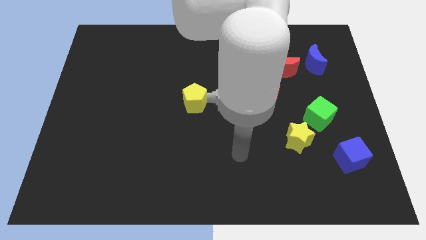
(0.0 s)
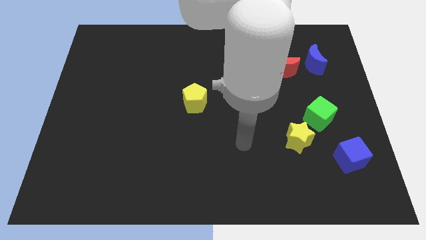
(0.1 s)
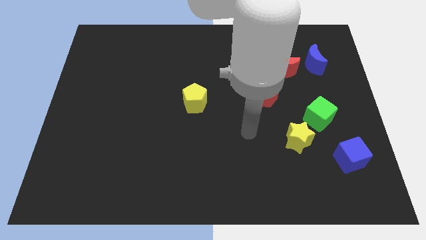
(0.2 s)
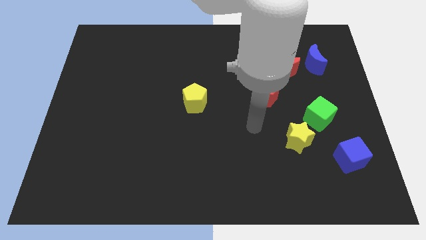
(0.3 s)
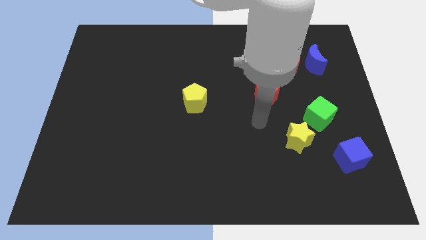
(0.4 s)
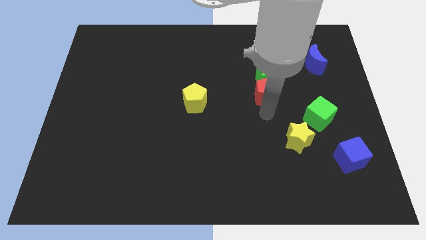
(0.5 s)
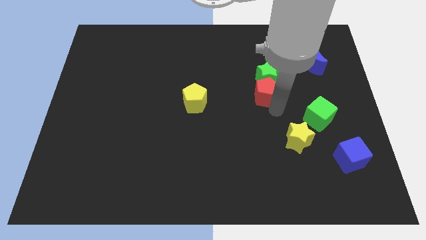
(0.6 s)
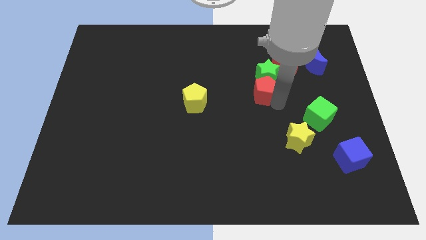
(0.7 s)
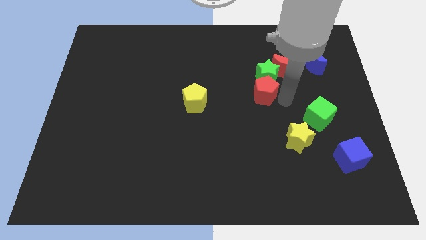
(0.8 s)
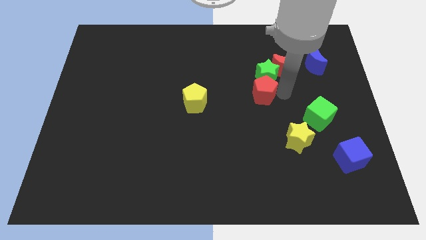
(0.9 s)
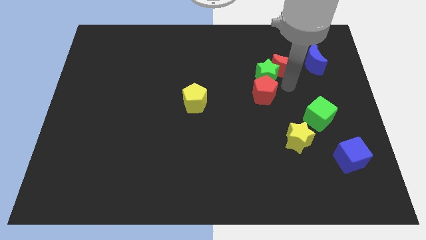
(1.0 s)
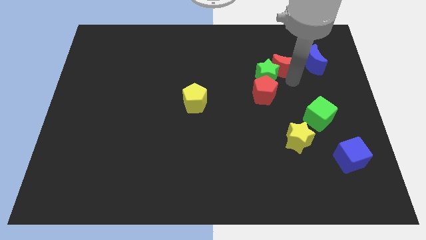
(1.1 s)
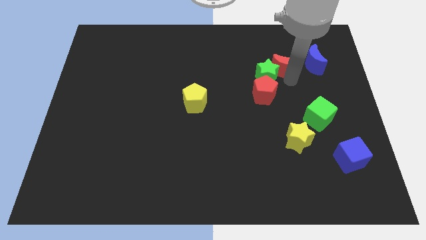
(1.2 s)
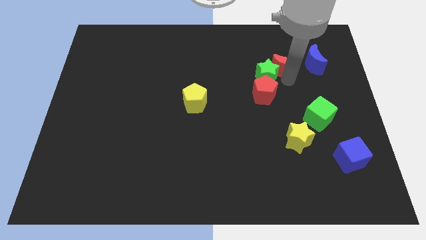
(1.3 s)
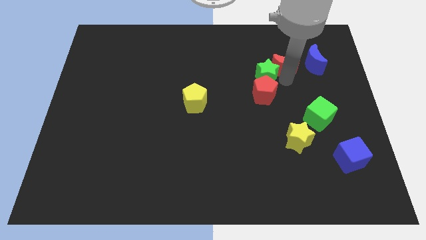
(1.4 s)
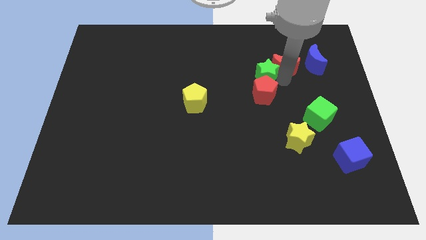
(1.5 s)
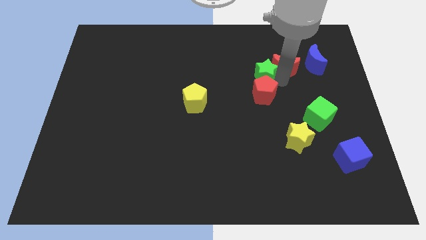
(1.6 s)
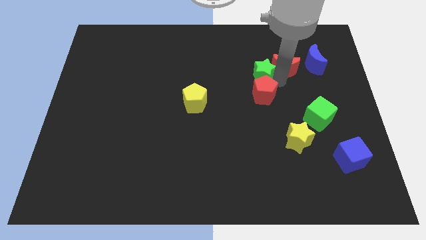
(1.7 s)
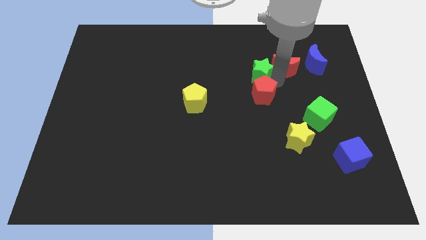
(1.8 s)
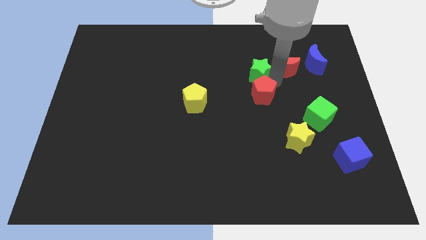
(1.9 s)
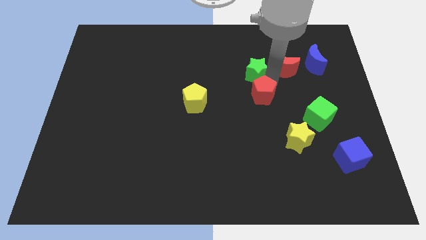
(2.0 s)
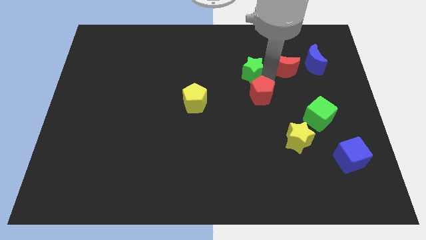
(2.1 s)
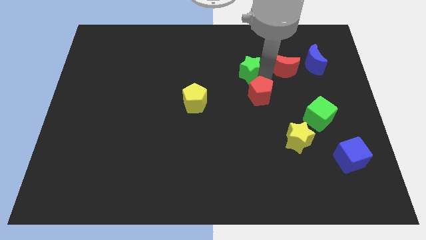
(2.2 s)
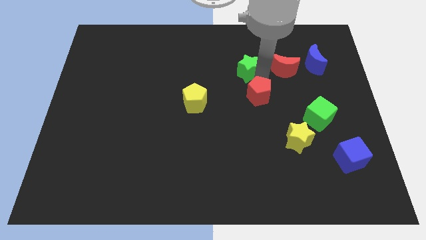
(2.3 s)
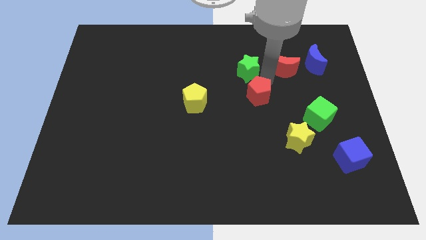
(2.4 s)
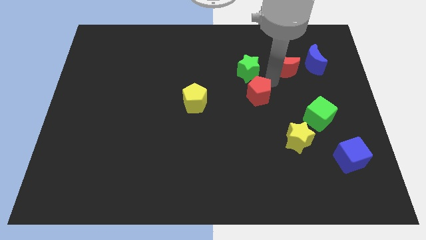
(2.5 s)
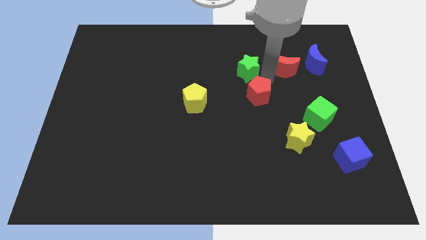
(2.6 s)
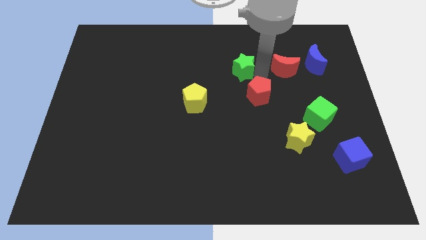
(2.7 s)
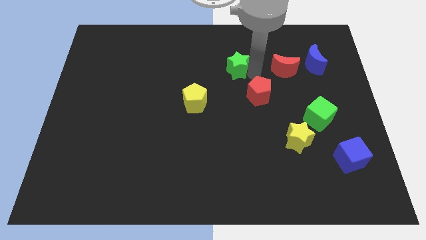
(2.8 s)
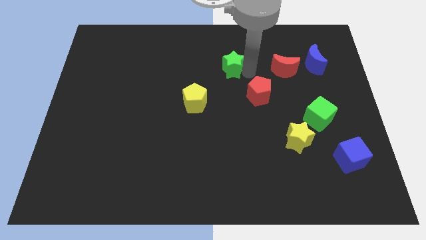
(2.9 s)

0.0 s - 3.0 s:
separate the green star from the red moon and red pentagon

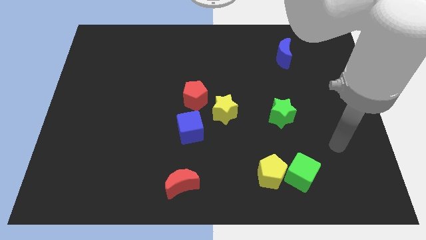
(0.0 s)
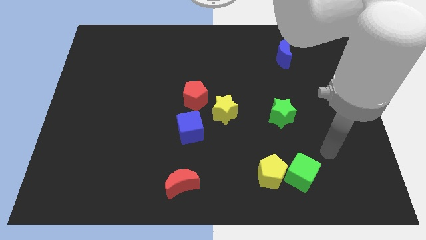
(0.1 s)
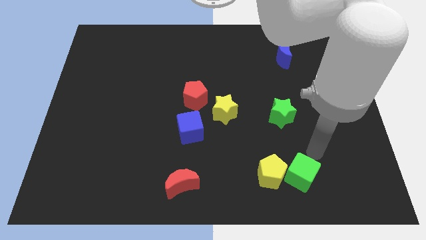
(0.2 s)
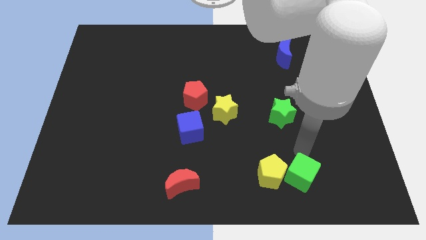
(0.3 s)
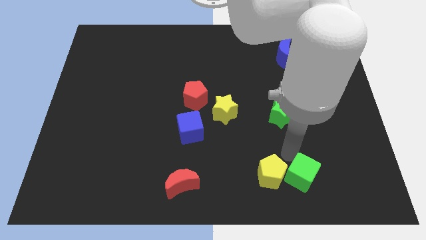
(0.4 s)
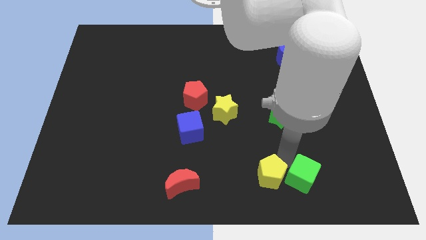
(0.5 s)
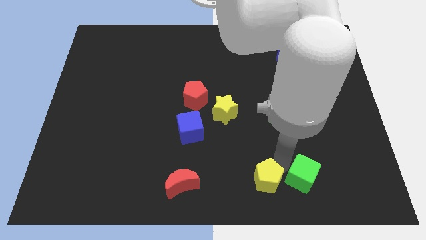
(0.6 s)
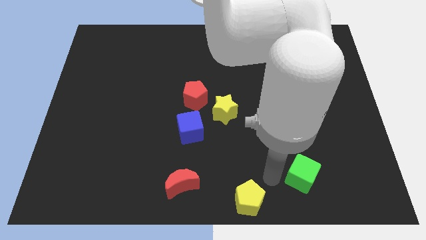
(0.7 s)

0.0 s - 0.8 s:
move the green cube away from the yellow pentagon

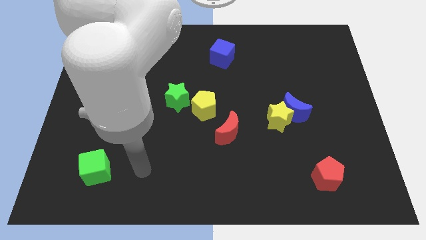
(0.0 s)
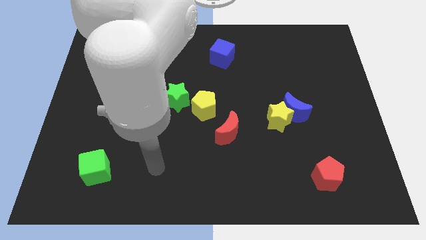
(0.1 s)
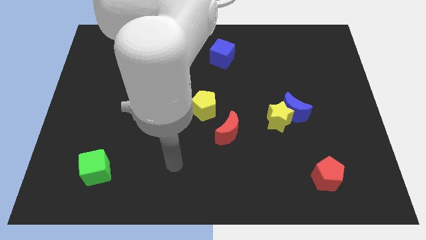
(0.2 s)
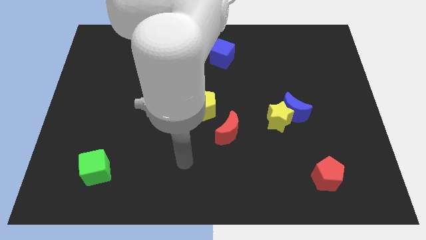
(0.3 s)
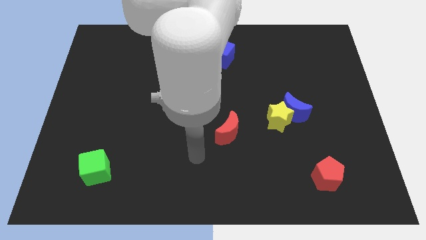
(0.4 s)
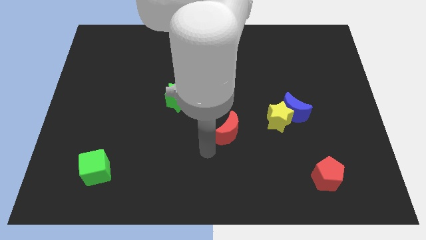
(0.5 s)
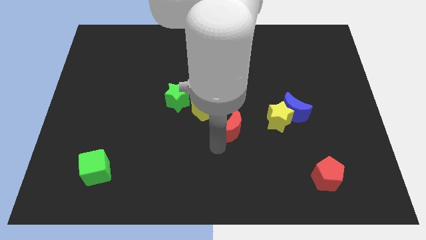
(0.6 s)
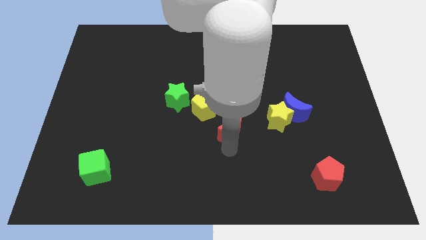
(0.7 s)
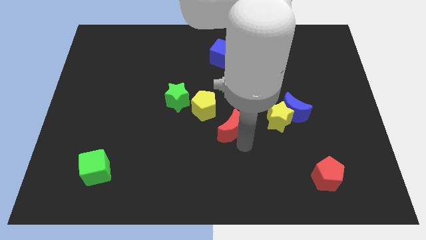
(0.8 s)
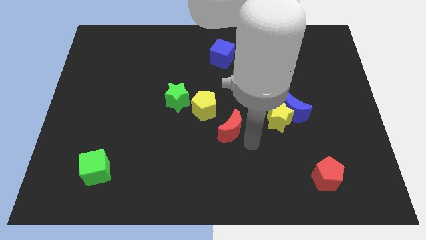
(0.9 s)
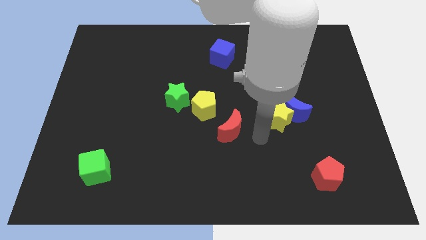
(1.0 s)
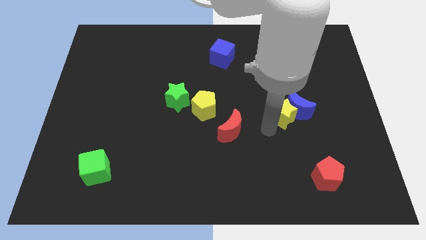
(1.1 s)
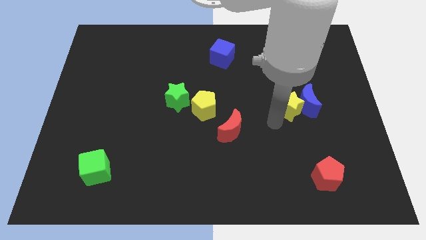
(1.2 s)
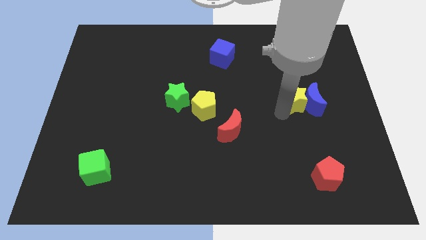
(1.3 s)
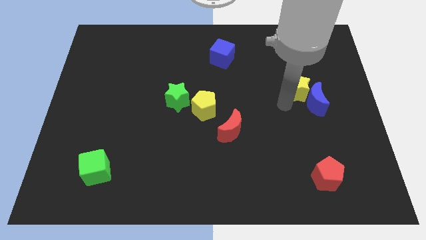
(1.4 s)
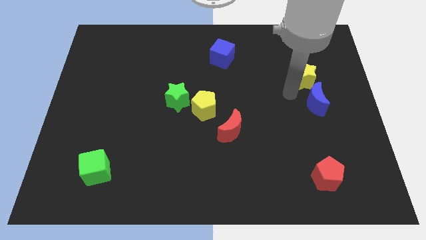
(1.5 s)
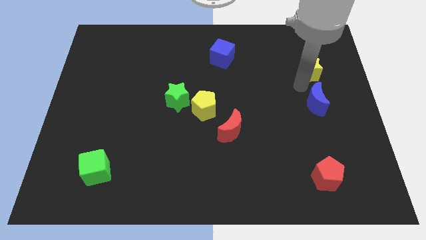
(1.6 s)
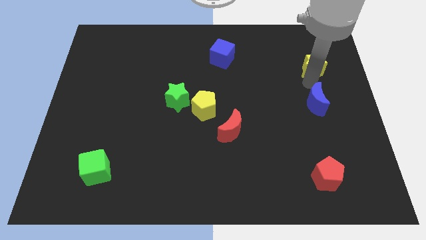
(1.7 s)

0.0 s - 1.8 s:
move the blue moon away from the yellow star

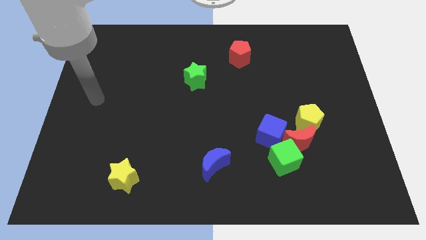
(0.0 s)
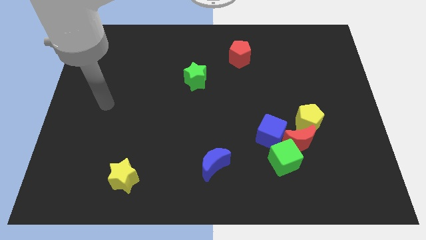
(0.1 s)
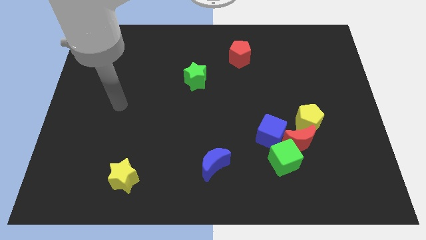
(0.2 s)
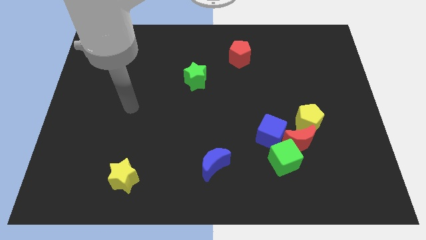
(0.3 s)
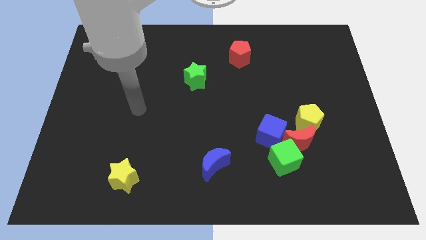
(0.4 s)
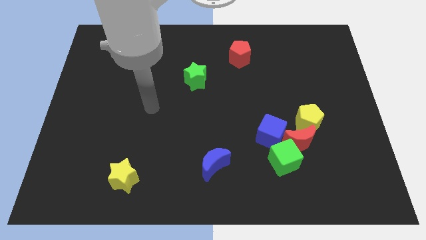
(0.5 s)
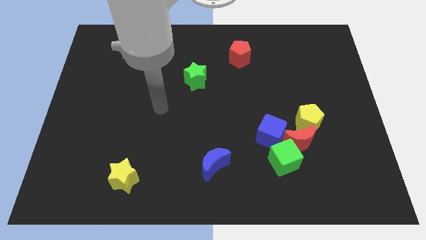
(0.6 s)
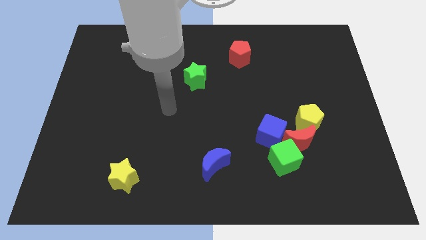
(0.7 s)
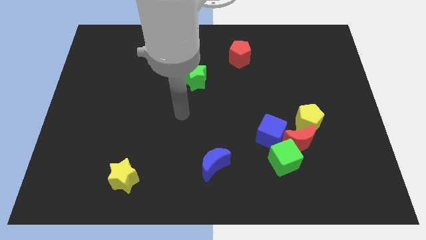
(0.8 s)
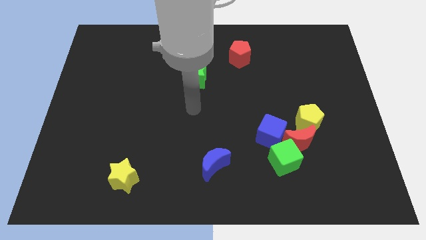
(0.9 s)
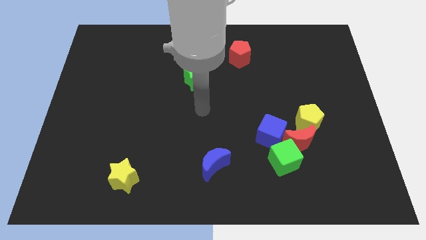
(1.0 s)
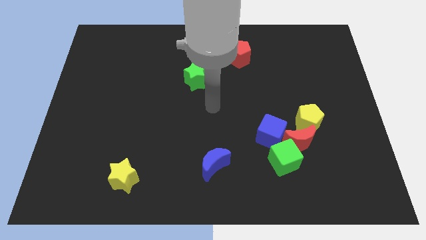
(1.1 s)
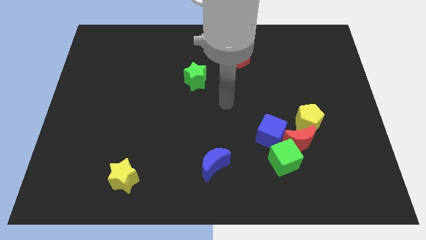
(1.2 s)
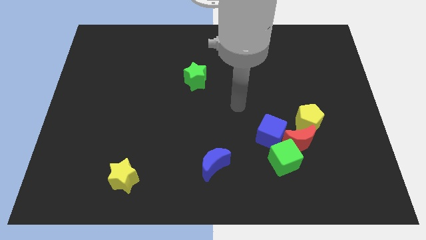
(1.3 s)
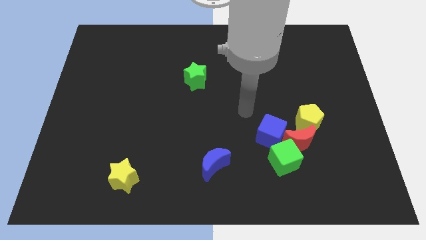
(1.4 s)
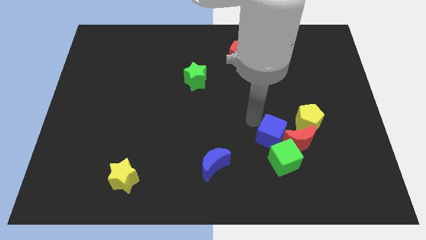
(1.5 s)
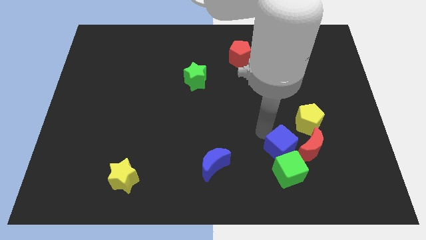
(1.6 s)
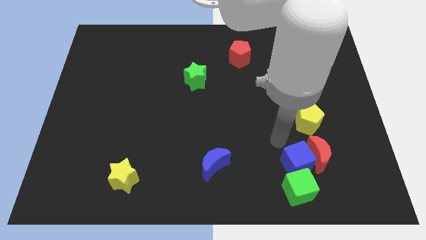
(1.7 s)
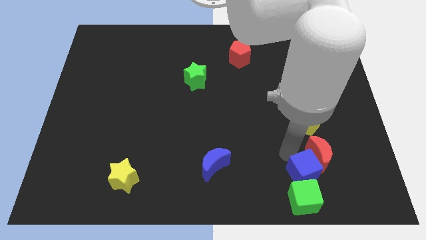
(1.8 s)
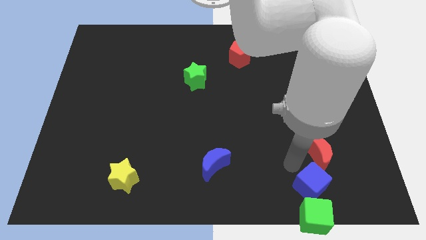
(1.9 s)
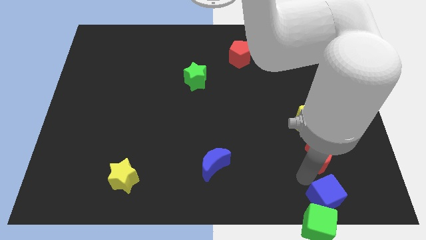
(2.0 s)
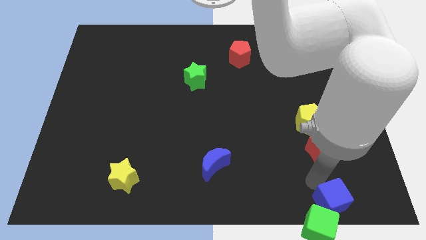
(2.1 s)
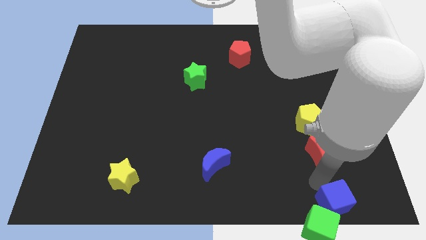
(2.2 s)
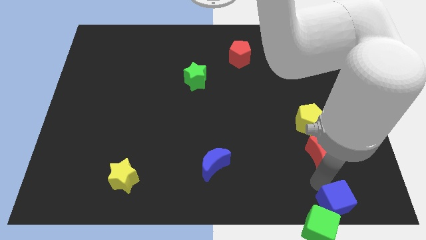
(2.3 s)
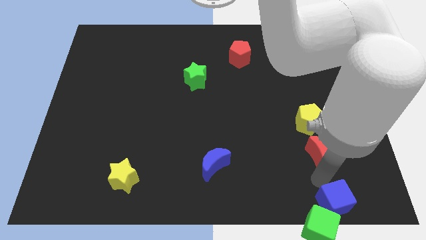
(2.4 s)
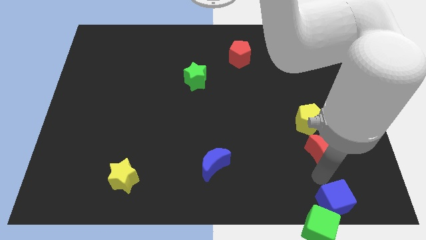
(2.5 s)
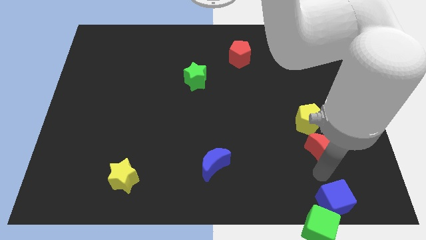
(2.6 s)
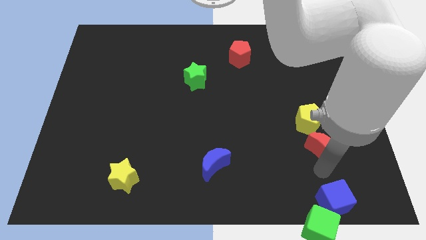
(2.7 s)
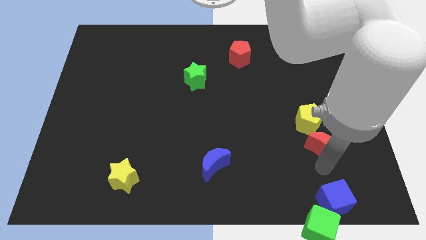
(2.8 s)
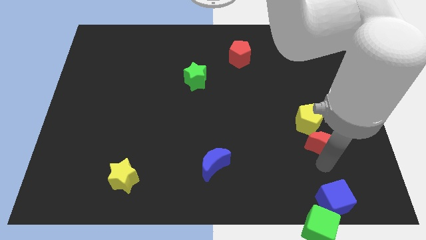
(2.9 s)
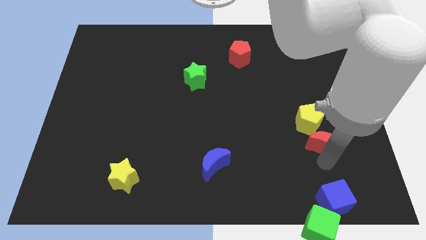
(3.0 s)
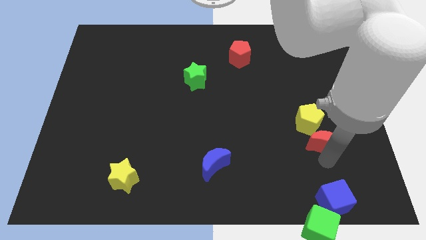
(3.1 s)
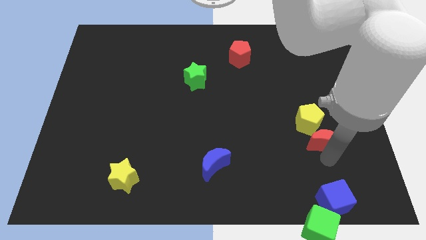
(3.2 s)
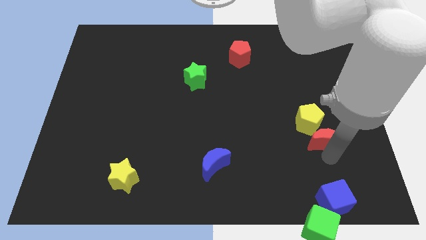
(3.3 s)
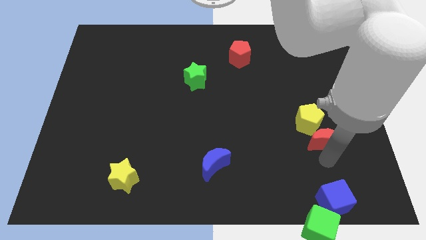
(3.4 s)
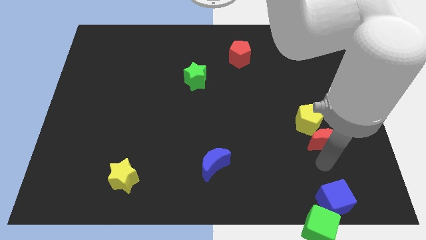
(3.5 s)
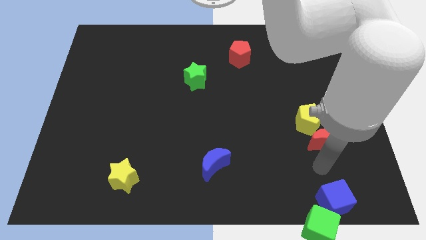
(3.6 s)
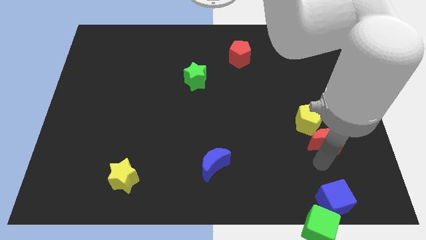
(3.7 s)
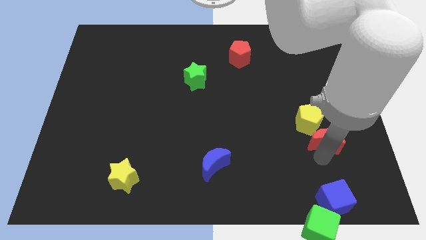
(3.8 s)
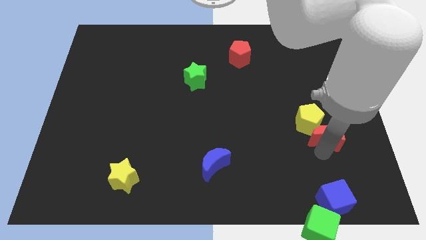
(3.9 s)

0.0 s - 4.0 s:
separate the red moon from the green cube, yellow pentagon, and blue cube
